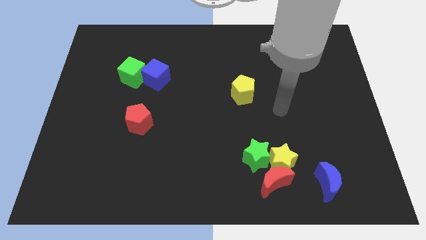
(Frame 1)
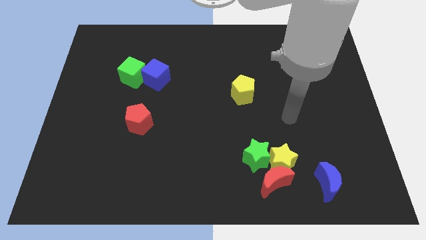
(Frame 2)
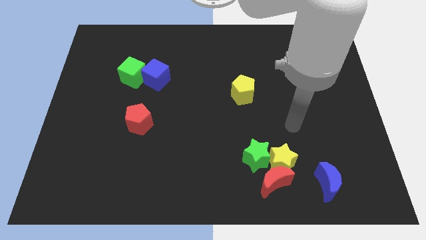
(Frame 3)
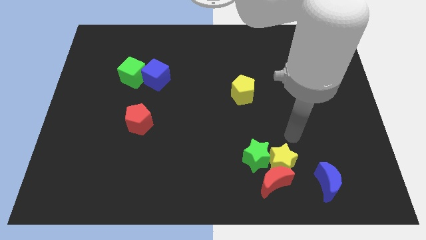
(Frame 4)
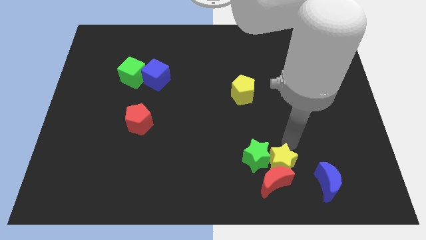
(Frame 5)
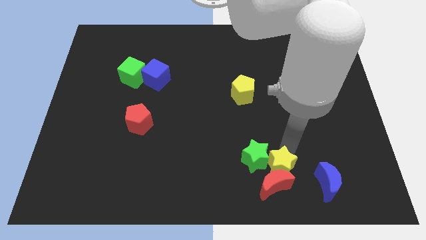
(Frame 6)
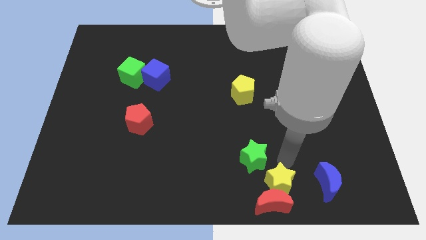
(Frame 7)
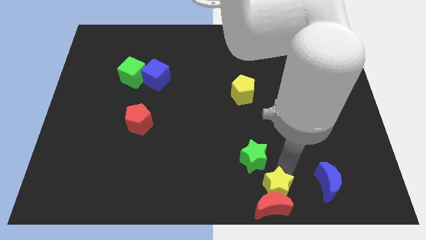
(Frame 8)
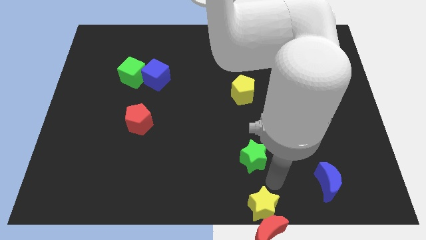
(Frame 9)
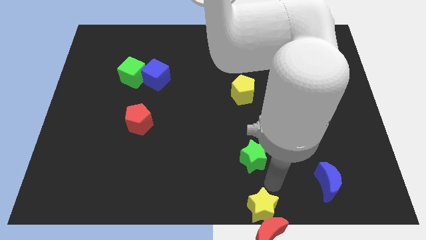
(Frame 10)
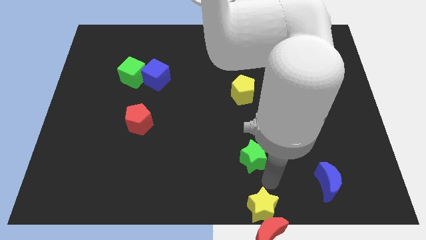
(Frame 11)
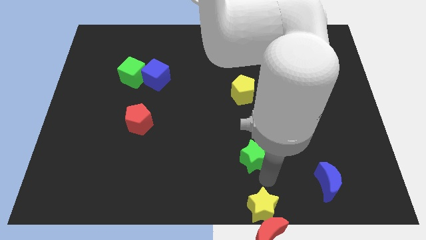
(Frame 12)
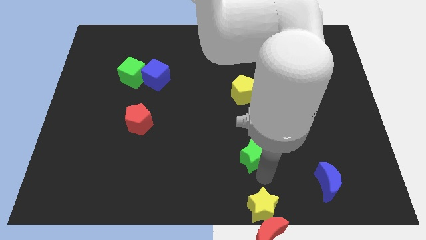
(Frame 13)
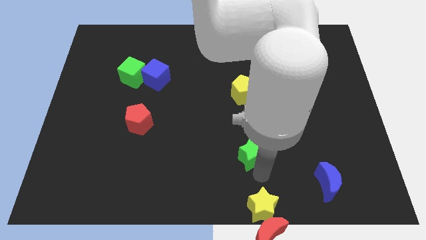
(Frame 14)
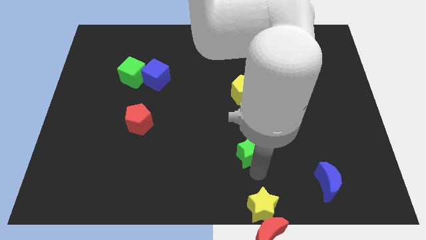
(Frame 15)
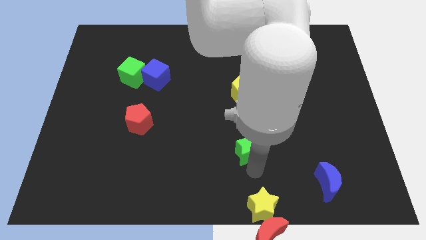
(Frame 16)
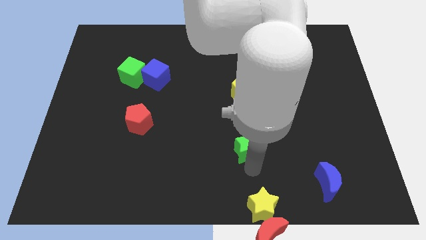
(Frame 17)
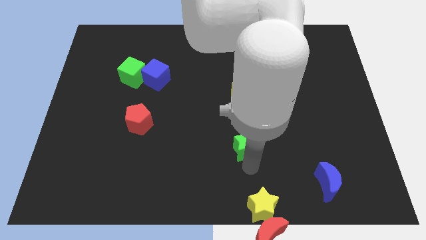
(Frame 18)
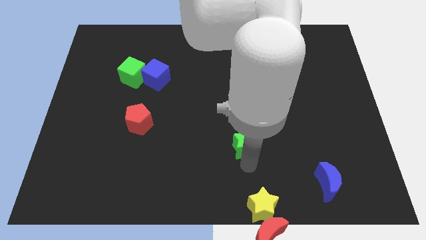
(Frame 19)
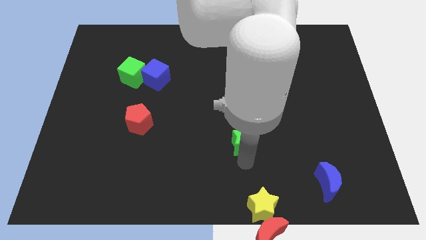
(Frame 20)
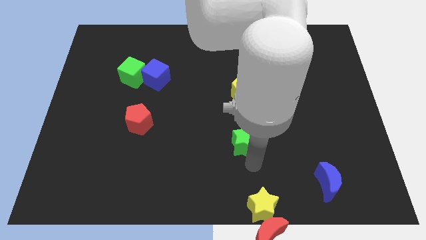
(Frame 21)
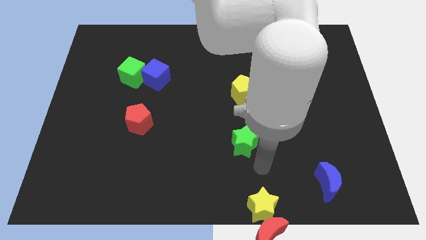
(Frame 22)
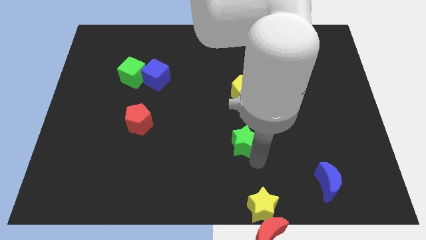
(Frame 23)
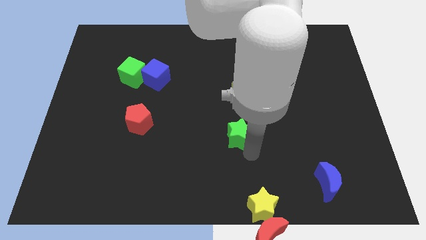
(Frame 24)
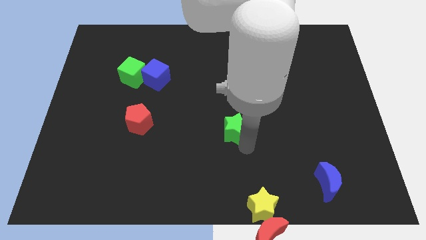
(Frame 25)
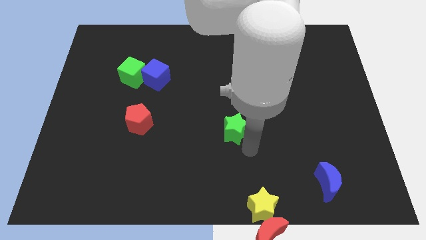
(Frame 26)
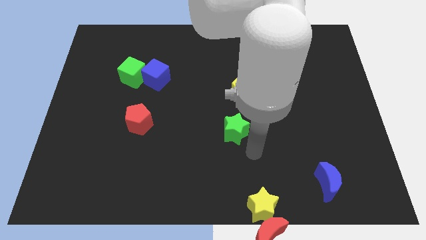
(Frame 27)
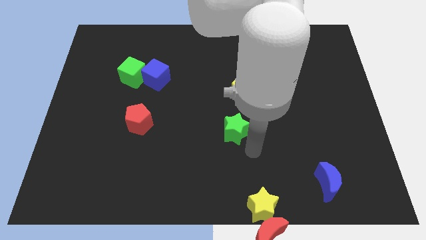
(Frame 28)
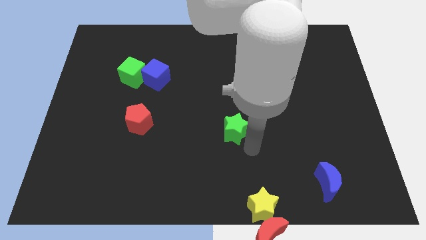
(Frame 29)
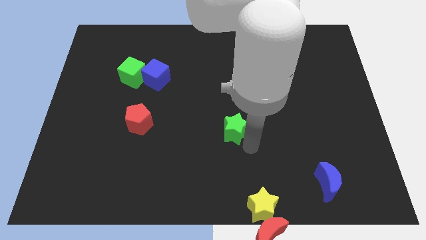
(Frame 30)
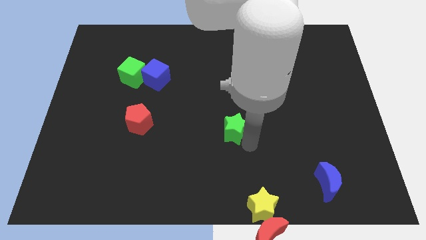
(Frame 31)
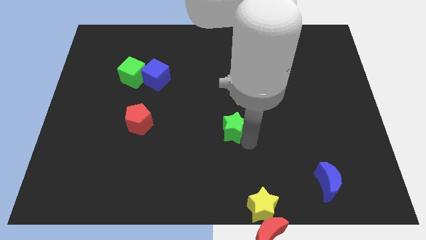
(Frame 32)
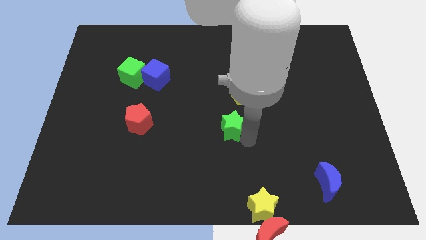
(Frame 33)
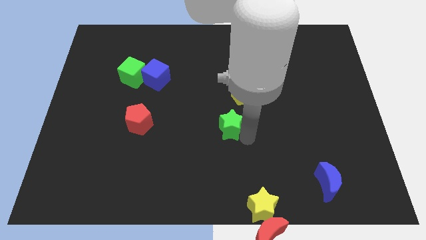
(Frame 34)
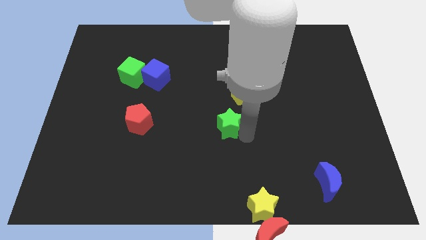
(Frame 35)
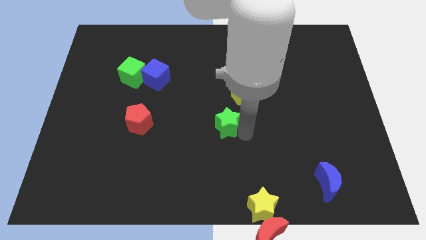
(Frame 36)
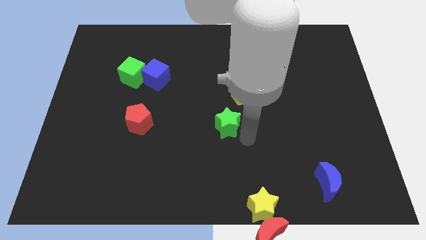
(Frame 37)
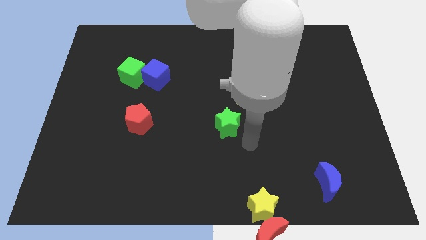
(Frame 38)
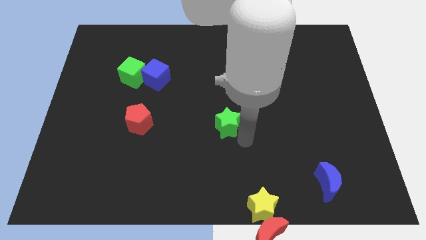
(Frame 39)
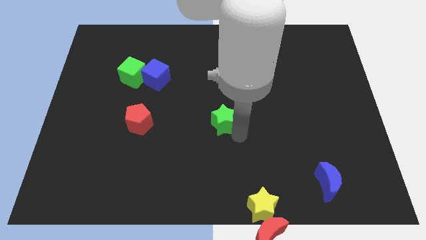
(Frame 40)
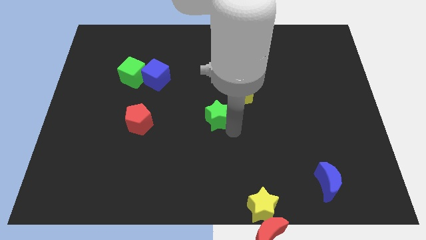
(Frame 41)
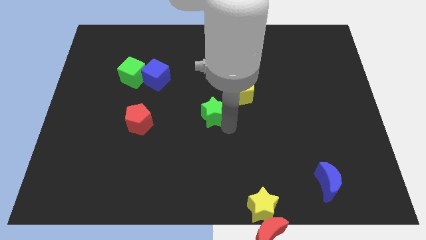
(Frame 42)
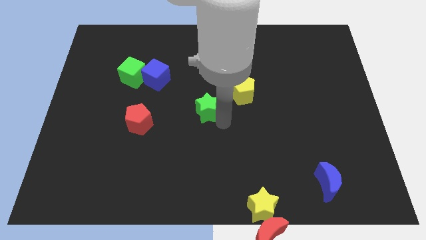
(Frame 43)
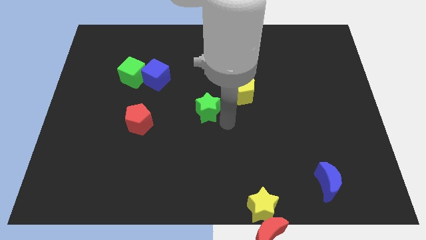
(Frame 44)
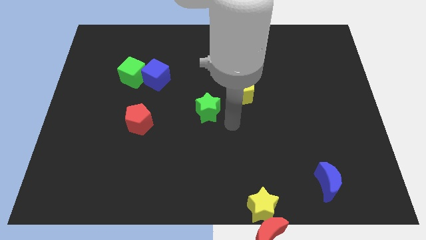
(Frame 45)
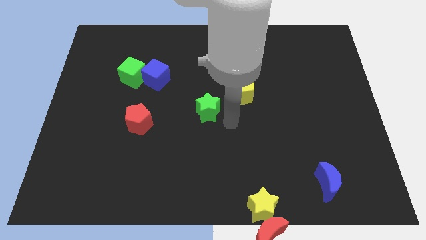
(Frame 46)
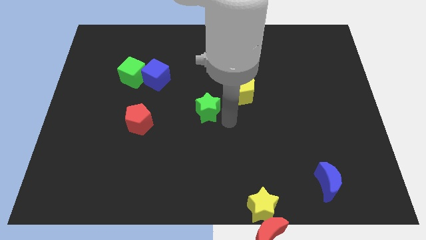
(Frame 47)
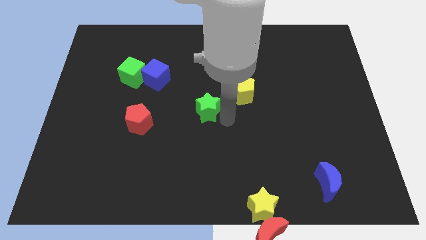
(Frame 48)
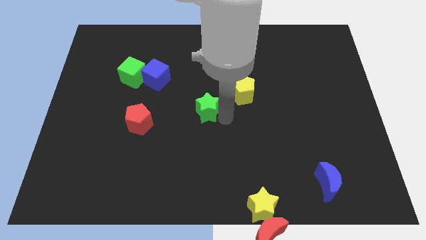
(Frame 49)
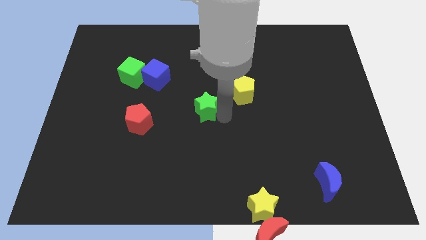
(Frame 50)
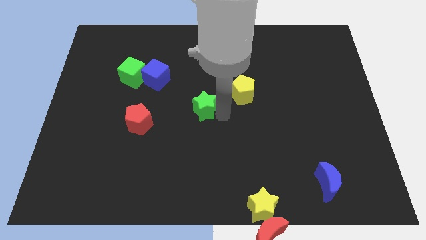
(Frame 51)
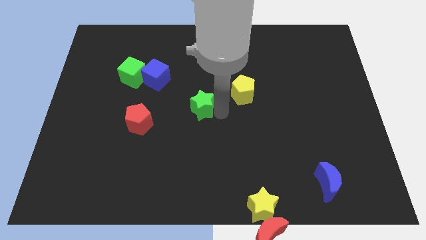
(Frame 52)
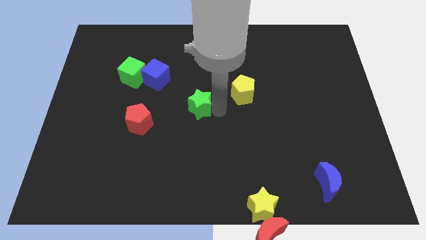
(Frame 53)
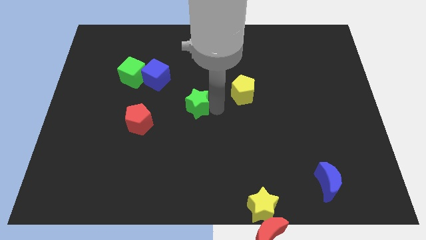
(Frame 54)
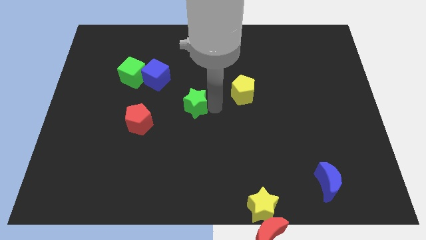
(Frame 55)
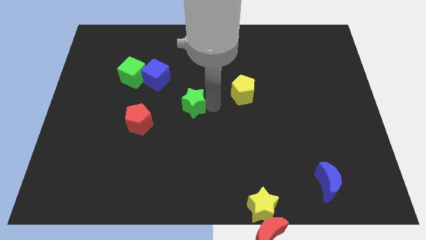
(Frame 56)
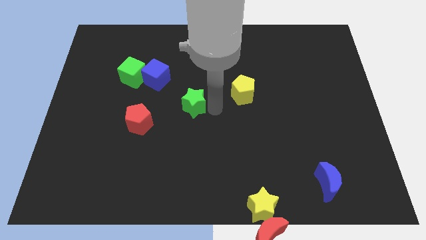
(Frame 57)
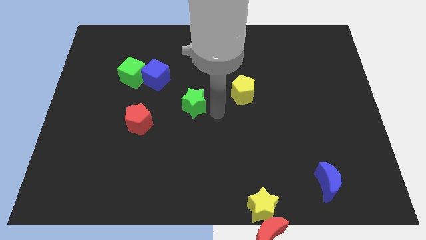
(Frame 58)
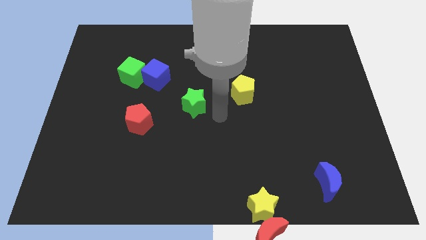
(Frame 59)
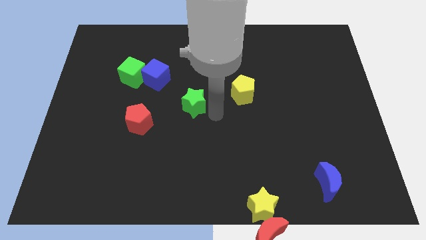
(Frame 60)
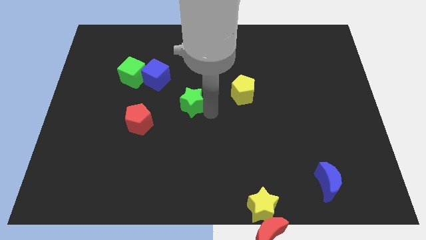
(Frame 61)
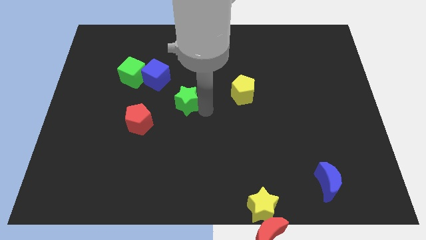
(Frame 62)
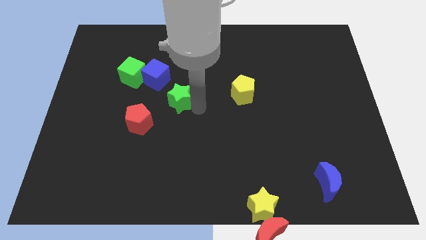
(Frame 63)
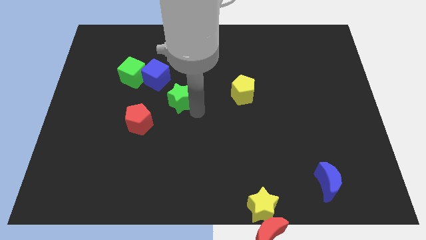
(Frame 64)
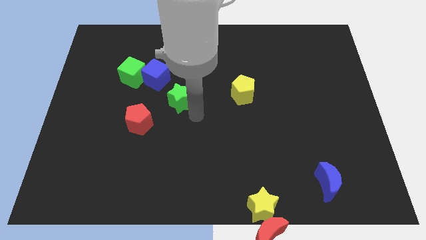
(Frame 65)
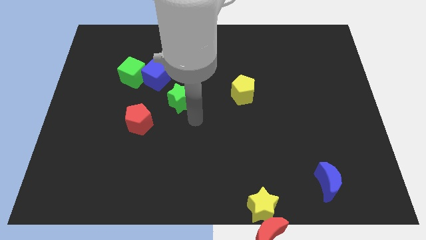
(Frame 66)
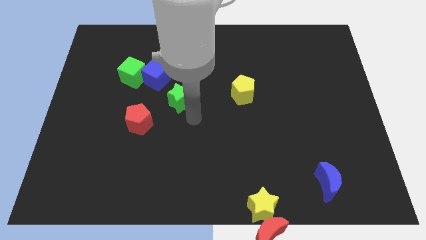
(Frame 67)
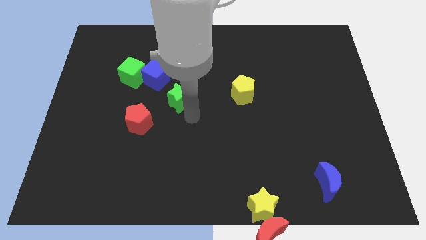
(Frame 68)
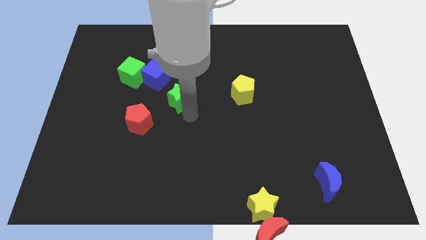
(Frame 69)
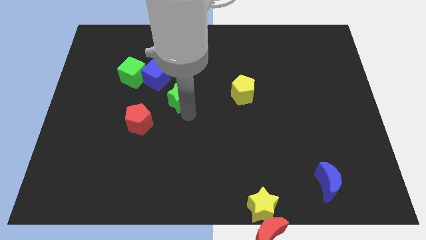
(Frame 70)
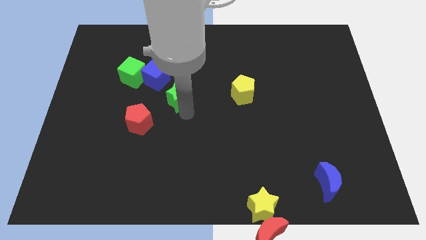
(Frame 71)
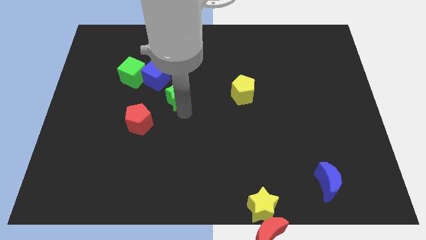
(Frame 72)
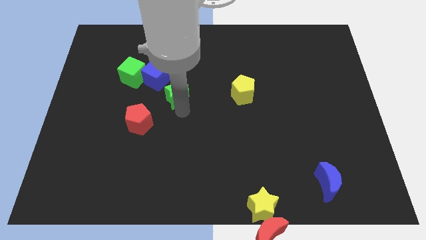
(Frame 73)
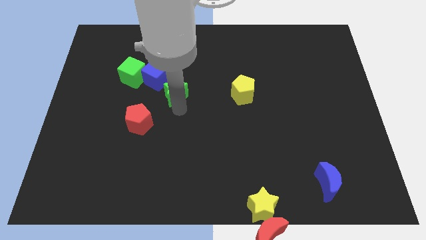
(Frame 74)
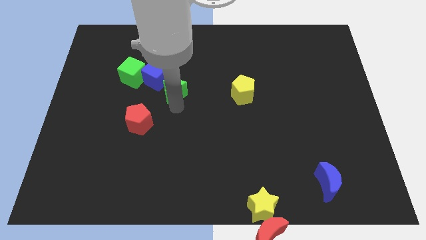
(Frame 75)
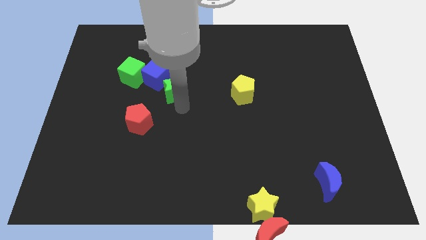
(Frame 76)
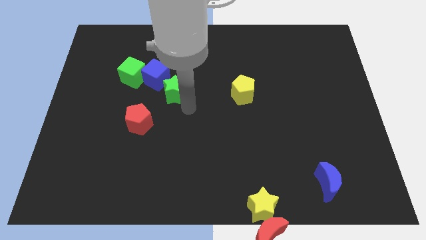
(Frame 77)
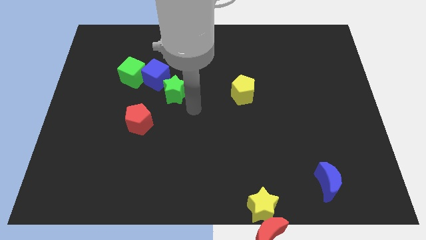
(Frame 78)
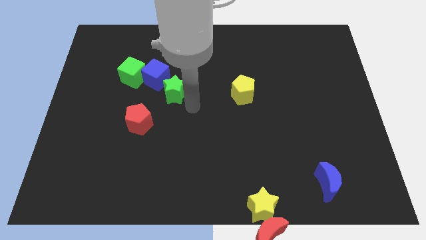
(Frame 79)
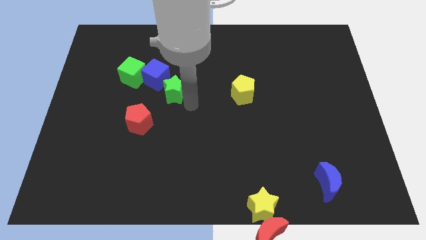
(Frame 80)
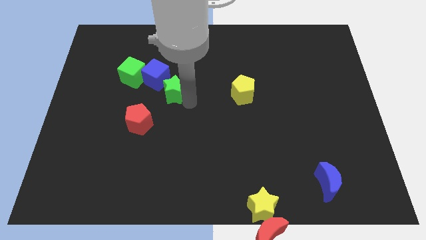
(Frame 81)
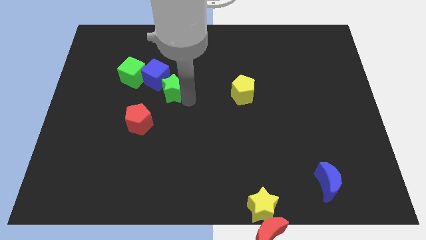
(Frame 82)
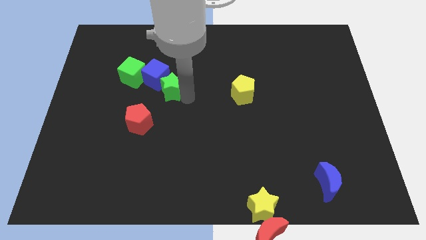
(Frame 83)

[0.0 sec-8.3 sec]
put the green star close to the blue cube
